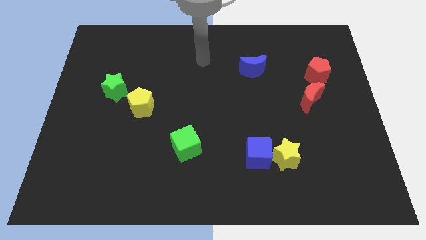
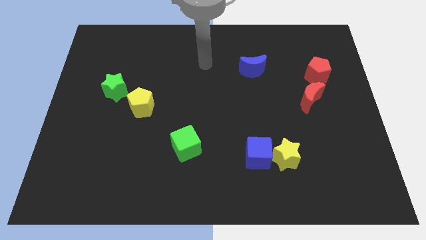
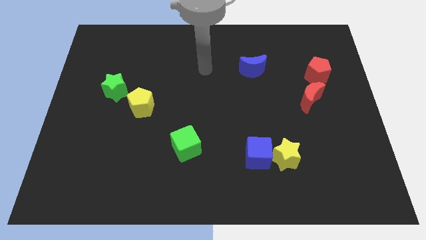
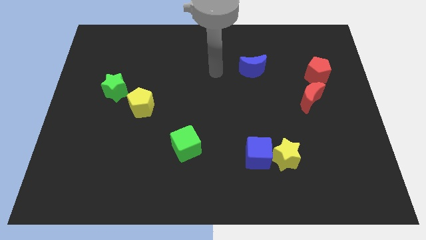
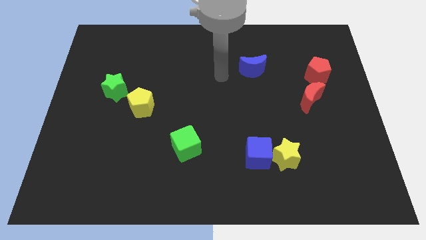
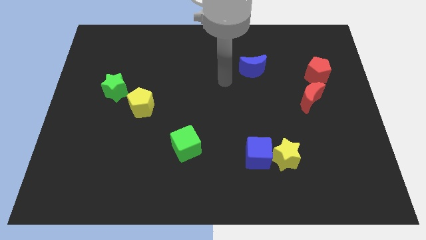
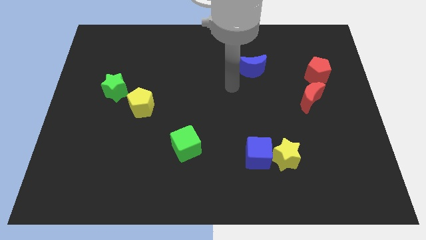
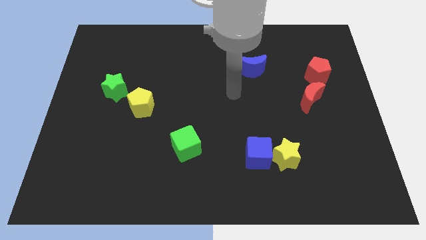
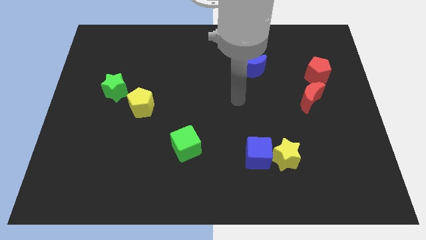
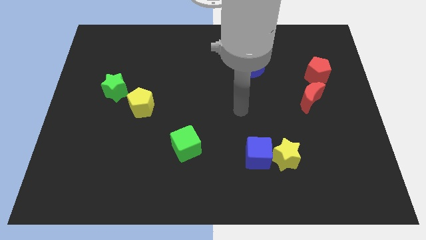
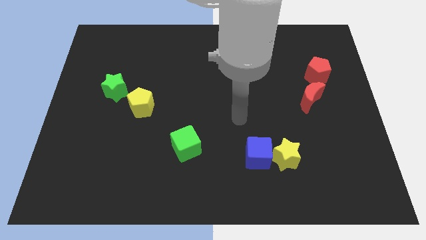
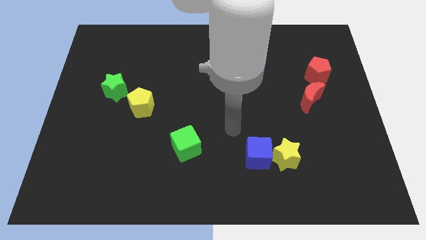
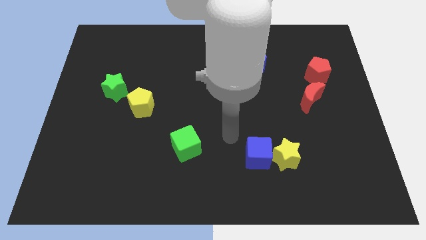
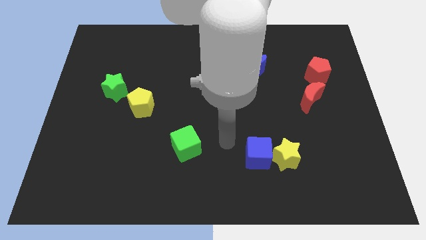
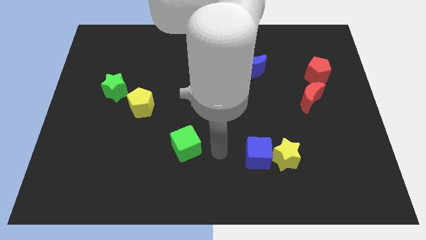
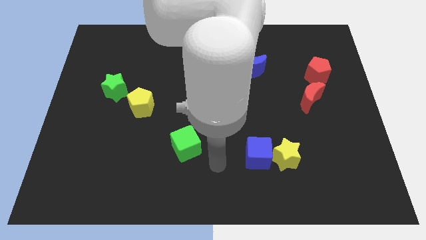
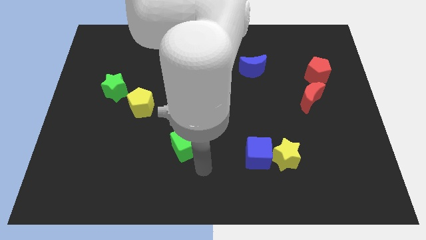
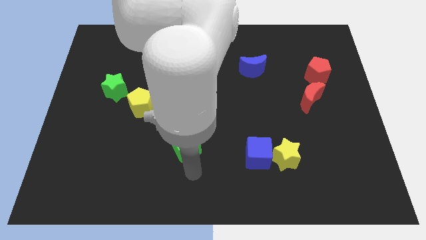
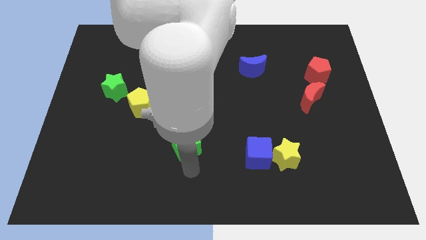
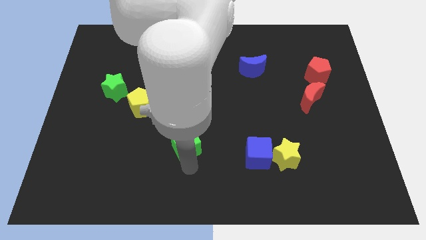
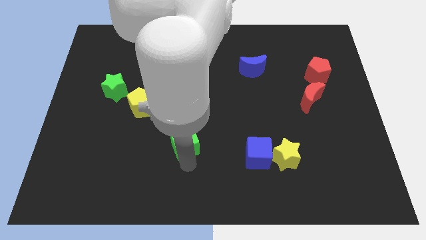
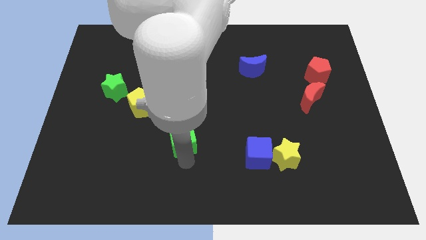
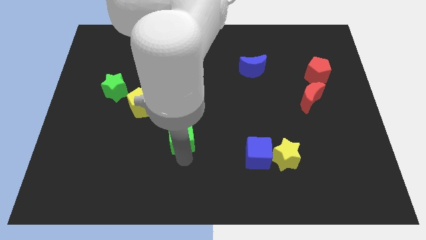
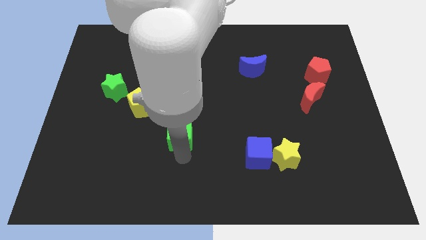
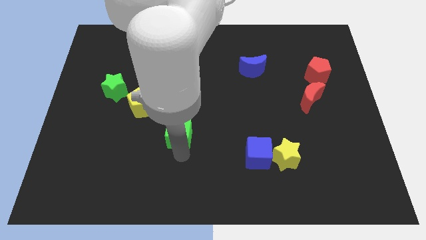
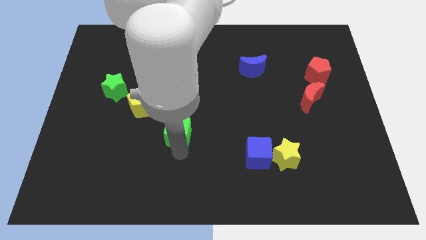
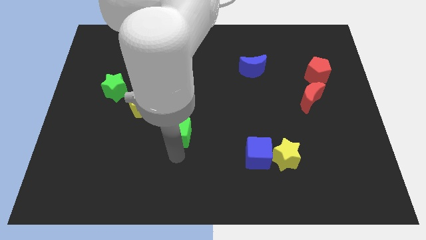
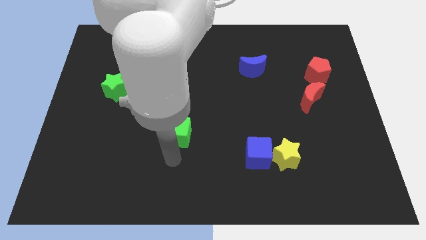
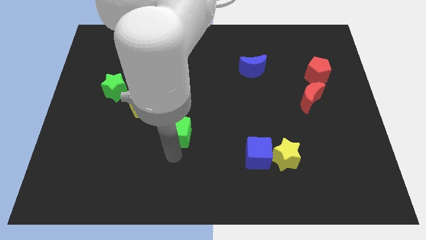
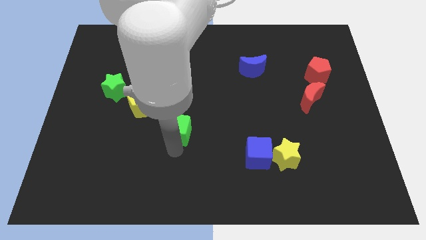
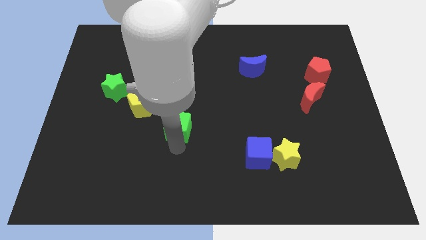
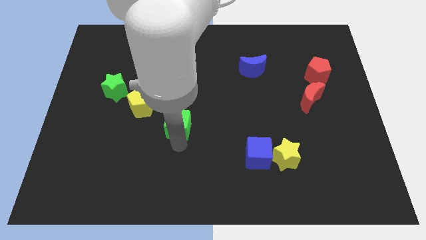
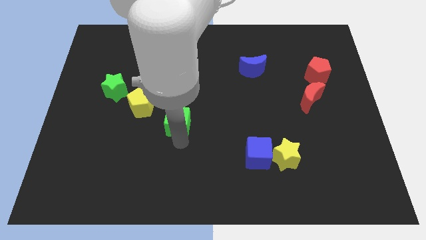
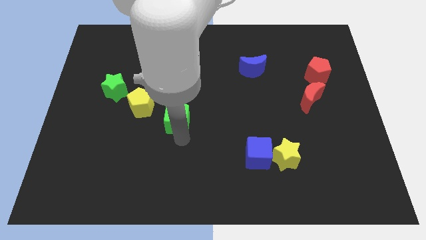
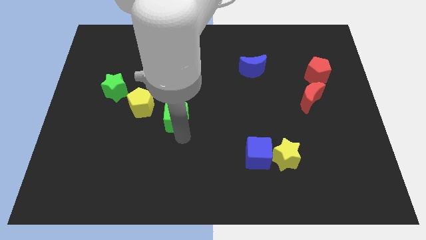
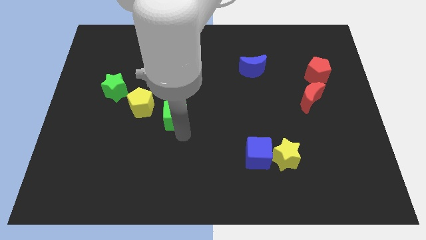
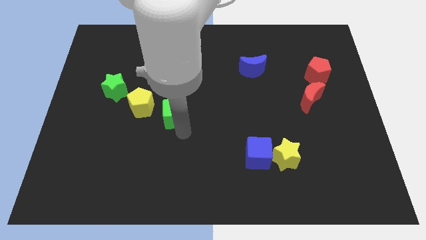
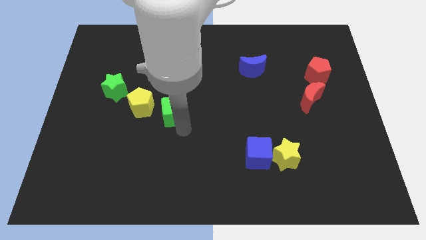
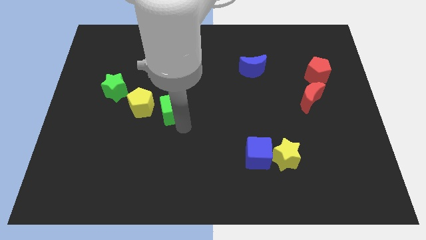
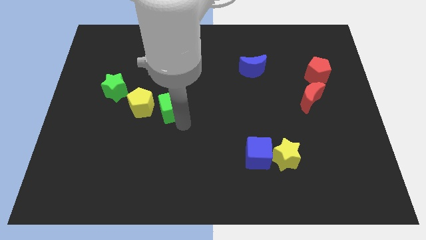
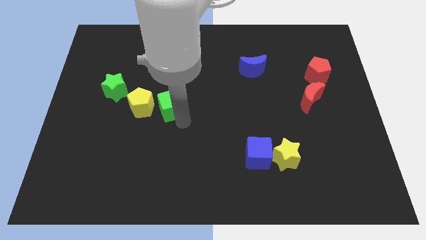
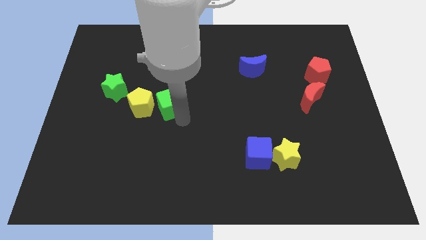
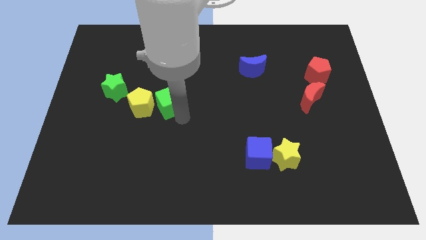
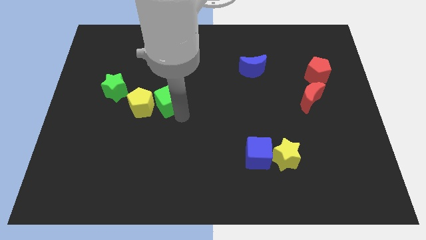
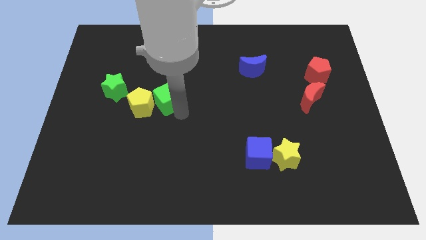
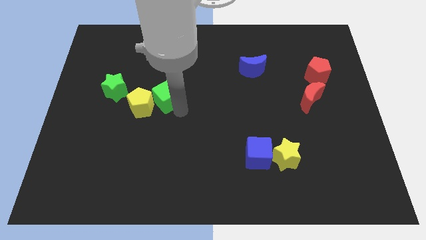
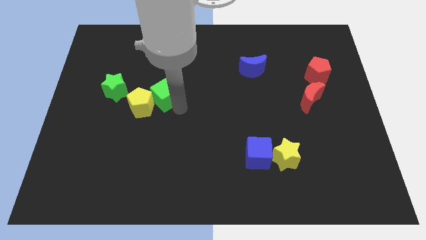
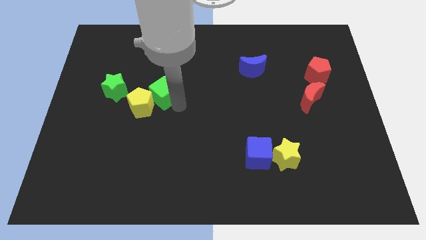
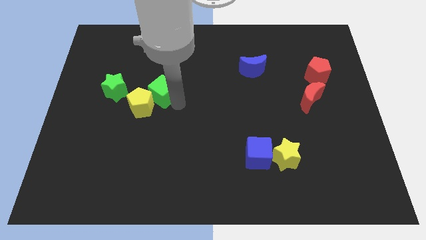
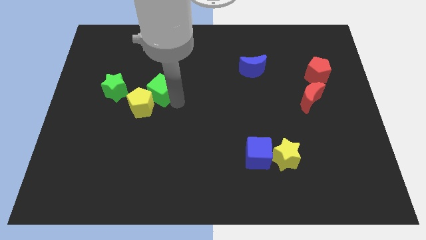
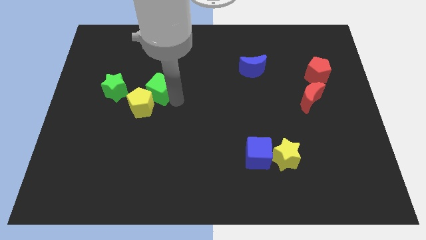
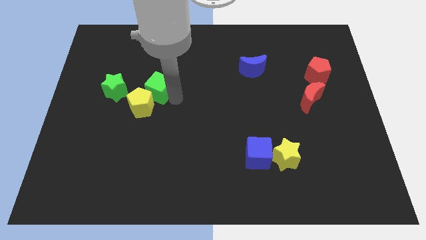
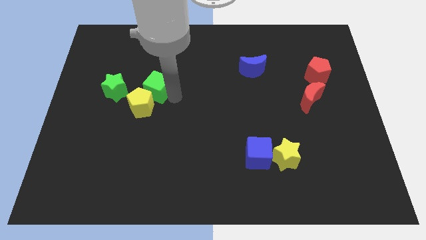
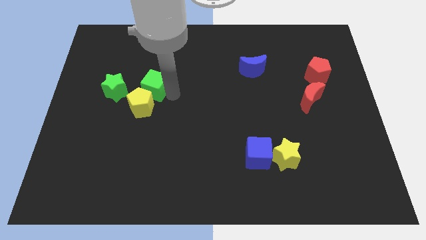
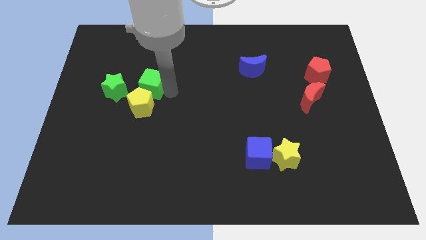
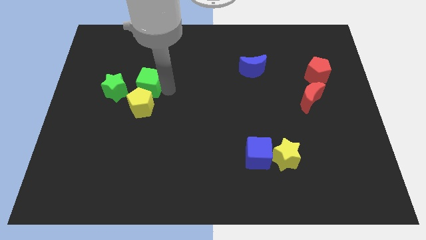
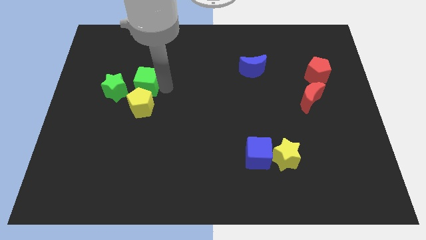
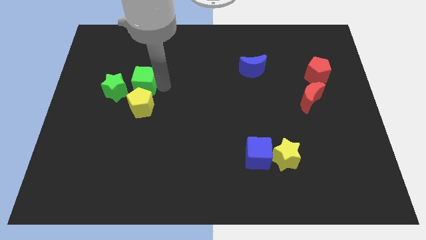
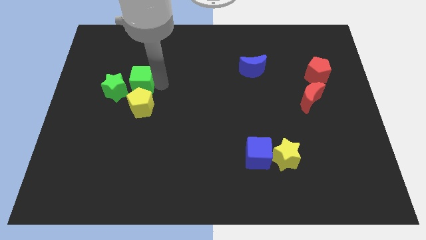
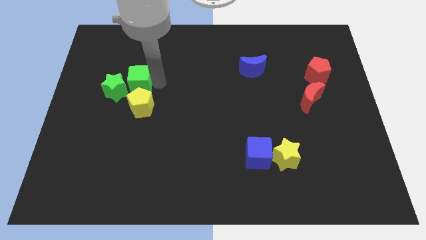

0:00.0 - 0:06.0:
move the green cube close to the green star

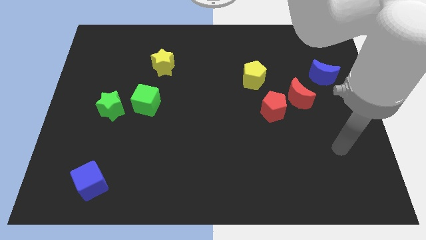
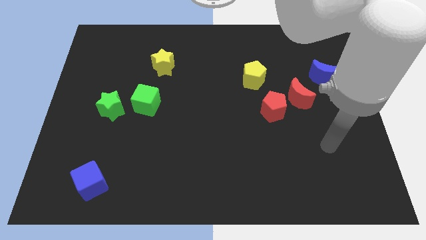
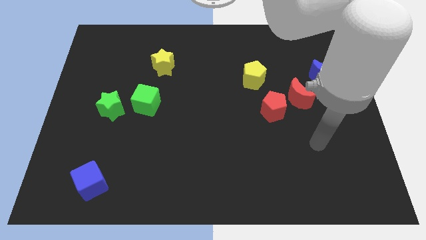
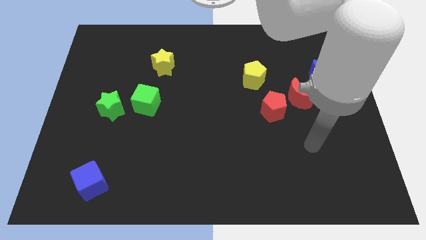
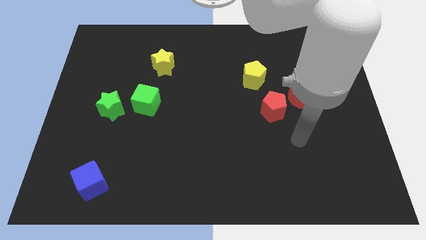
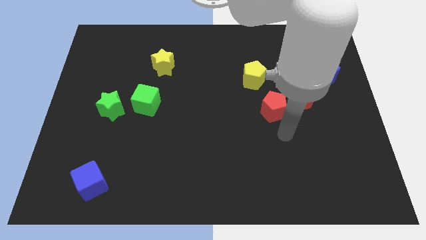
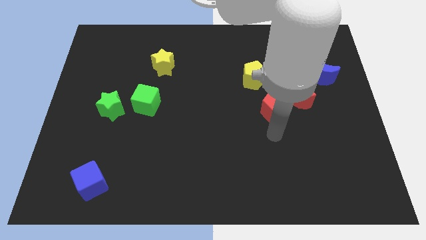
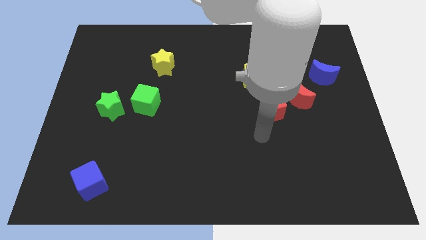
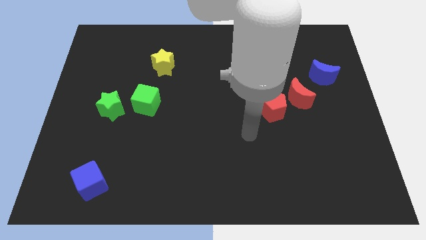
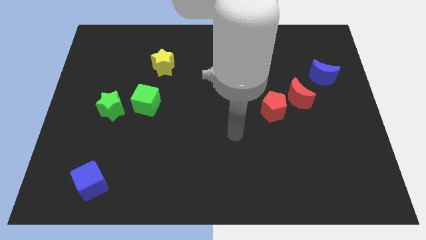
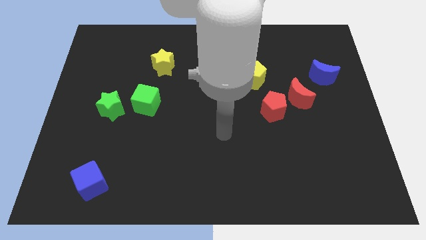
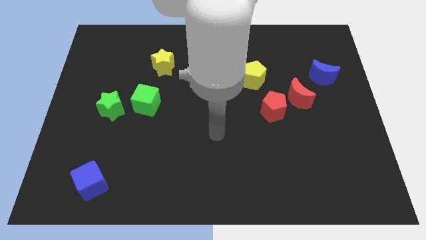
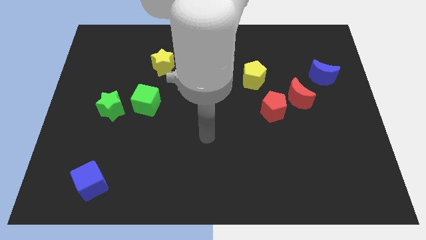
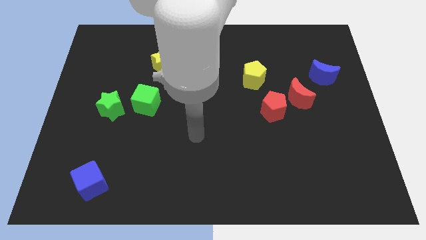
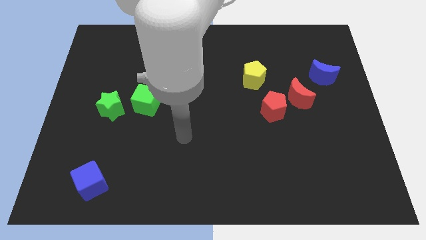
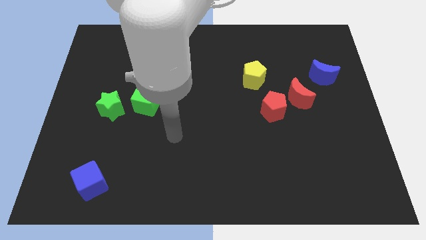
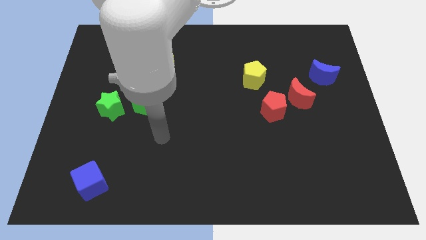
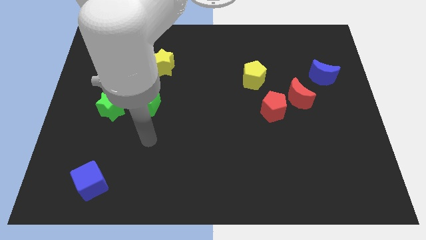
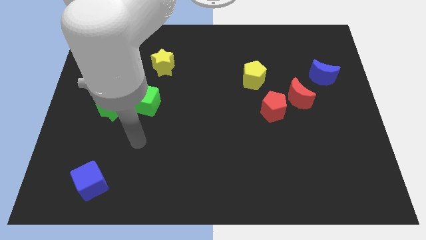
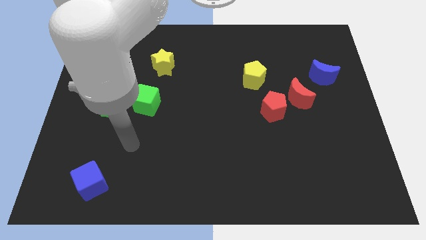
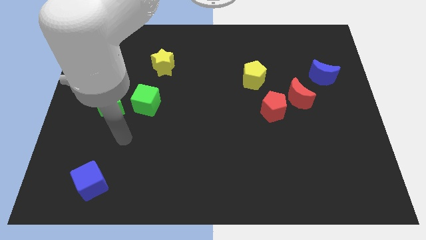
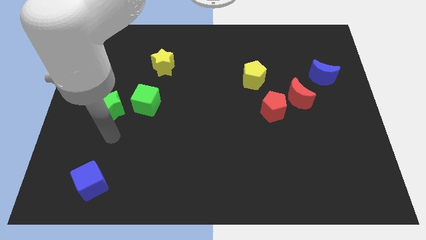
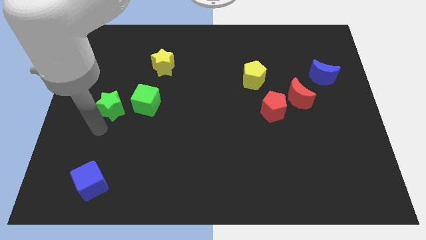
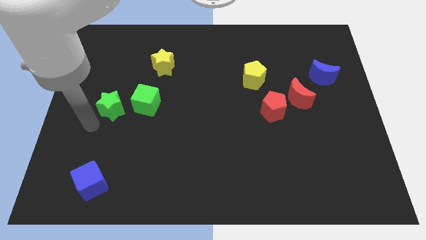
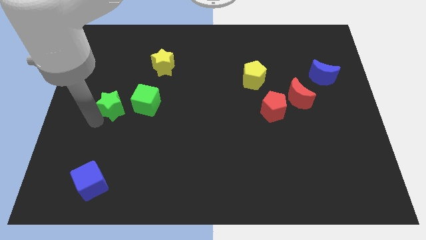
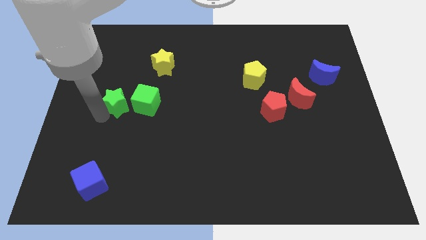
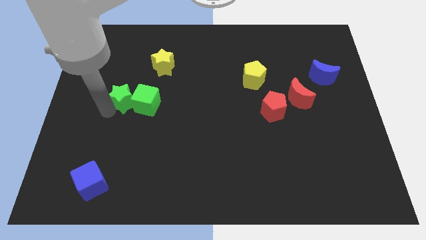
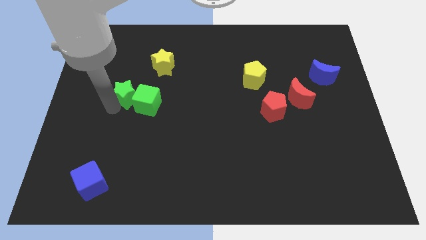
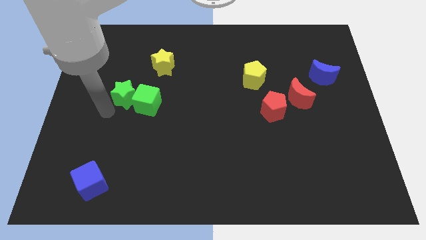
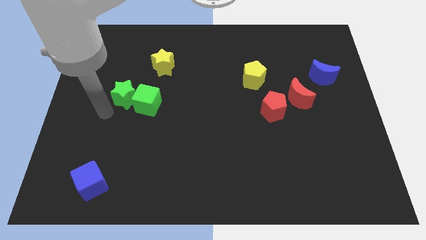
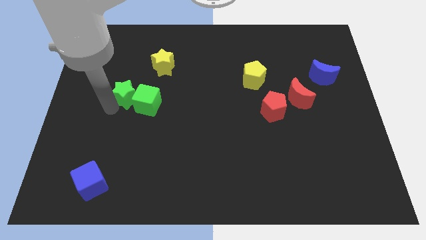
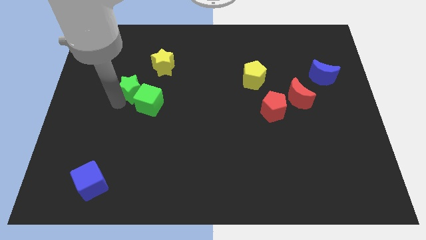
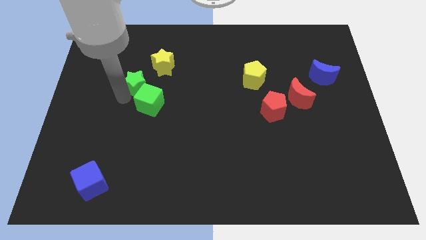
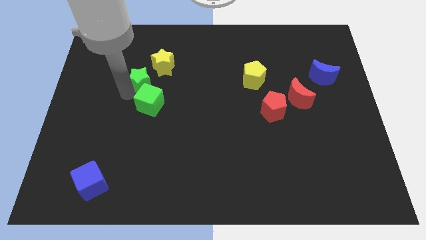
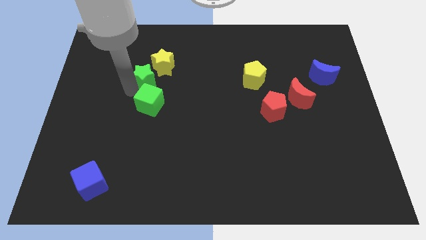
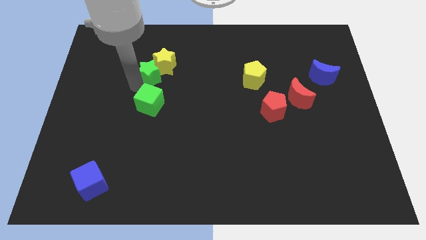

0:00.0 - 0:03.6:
put the green star towards the yellow star
